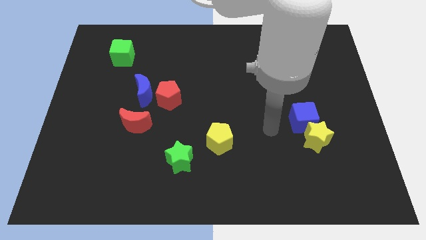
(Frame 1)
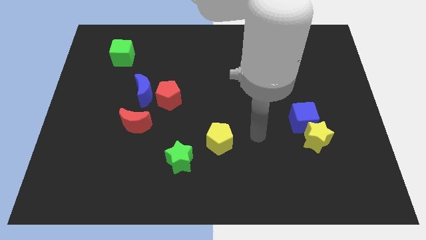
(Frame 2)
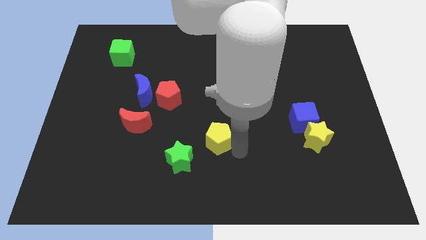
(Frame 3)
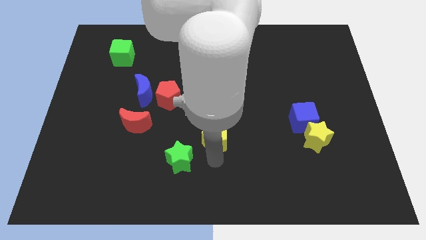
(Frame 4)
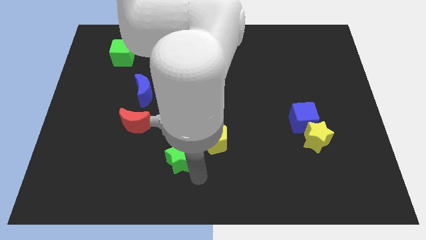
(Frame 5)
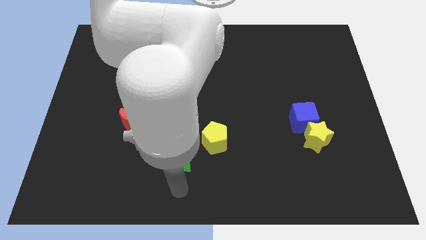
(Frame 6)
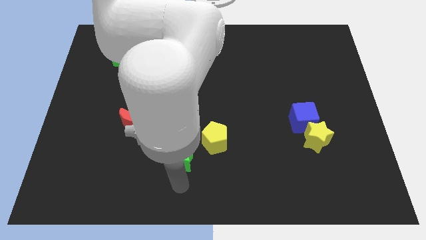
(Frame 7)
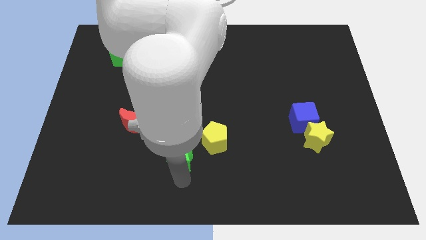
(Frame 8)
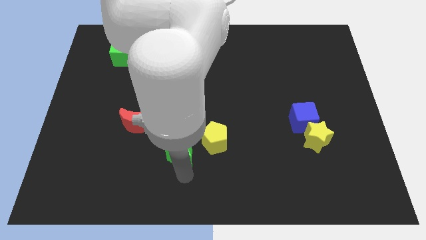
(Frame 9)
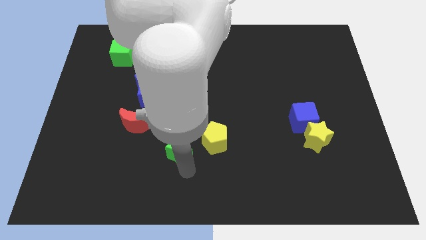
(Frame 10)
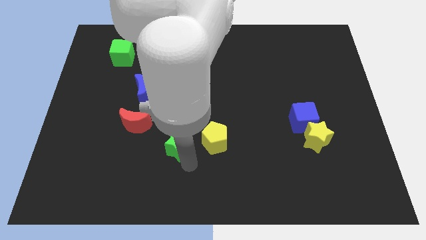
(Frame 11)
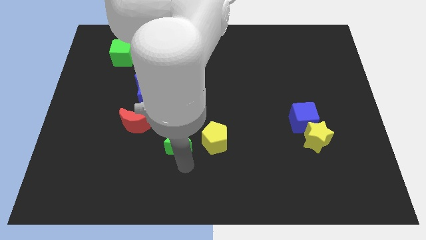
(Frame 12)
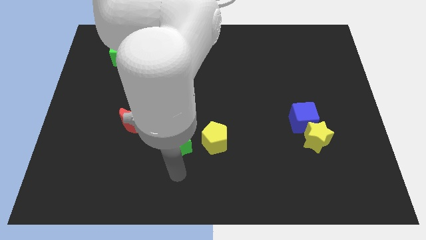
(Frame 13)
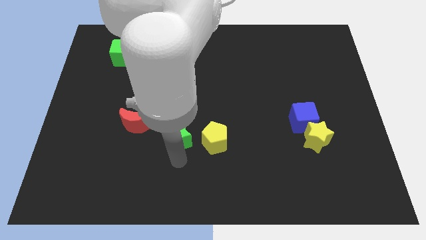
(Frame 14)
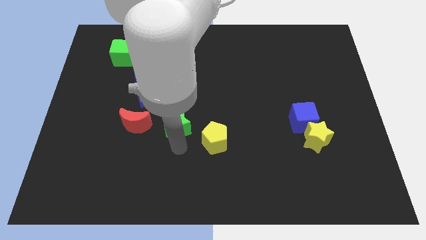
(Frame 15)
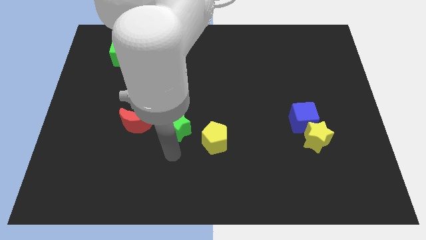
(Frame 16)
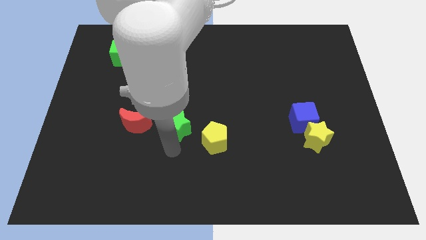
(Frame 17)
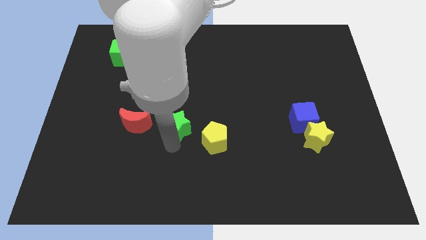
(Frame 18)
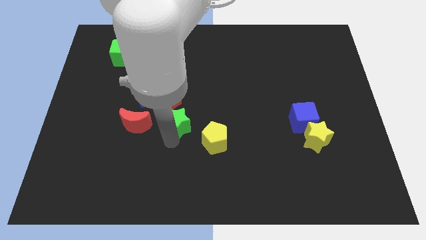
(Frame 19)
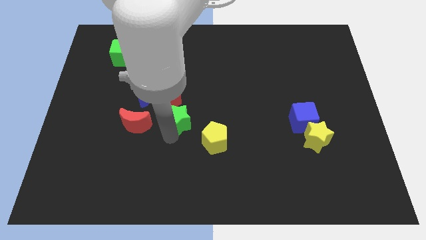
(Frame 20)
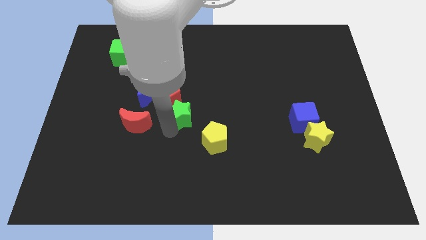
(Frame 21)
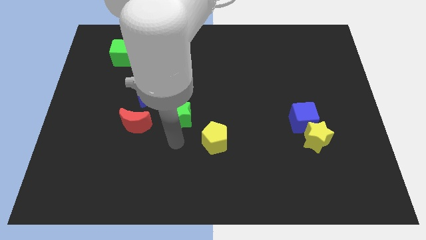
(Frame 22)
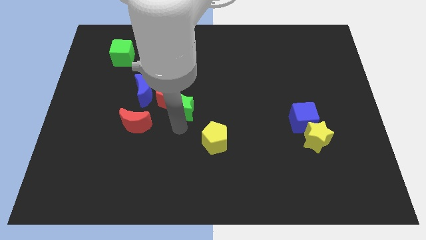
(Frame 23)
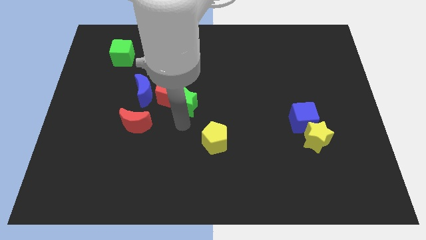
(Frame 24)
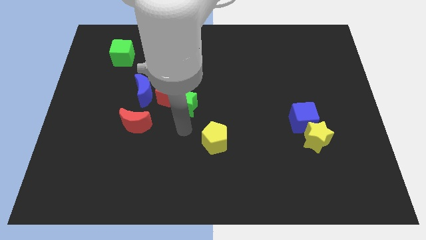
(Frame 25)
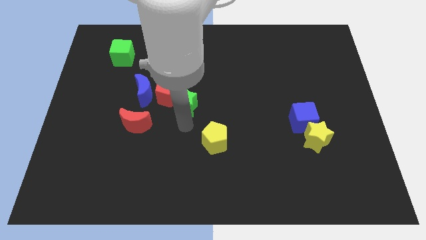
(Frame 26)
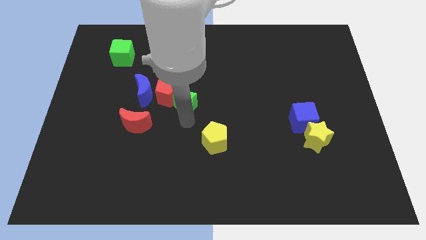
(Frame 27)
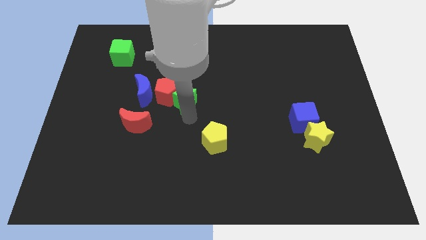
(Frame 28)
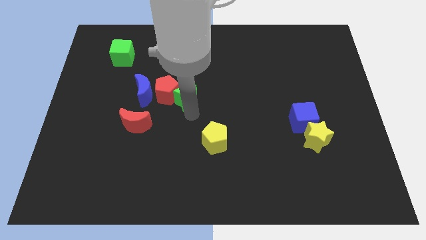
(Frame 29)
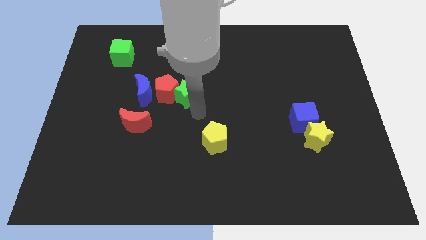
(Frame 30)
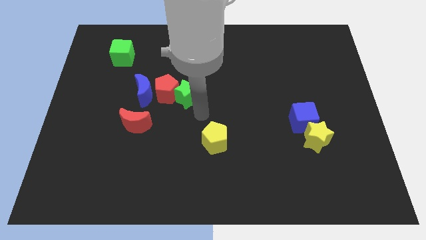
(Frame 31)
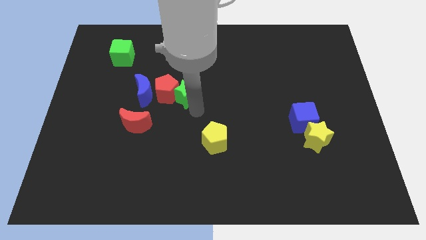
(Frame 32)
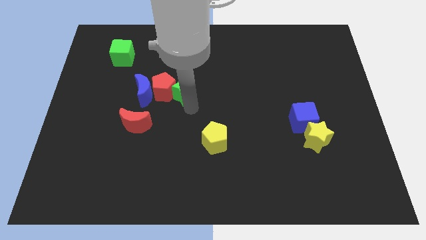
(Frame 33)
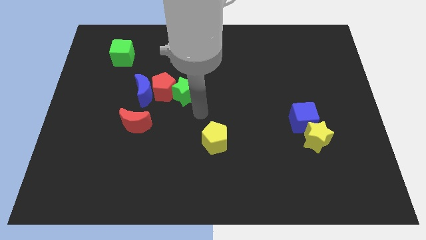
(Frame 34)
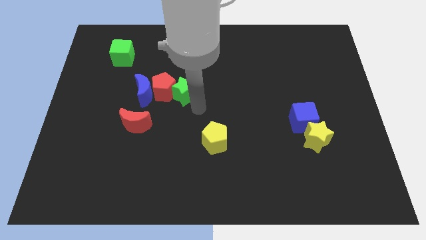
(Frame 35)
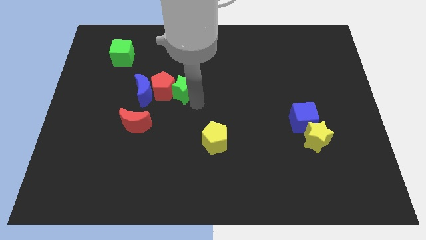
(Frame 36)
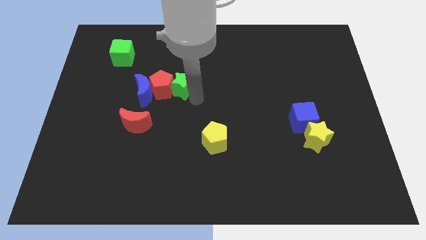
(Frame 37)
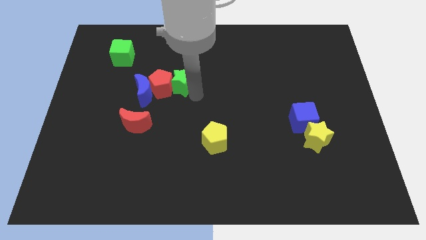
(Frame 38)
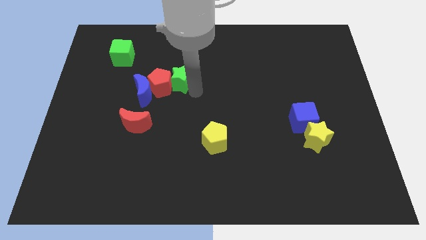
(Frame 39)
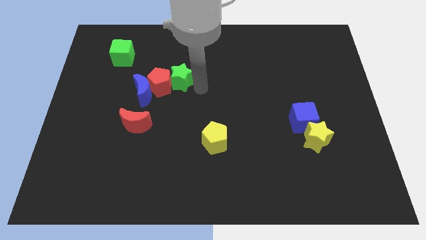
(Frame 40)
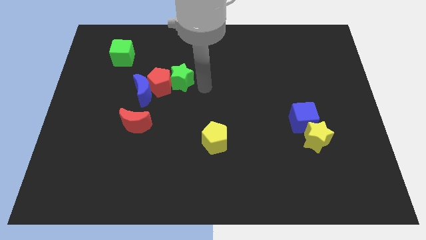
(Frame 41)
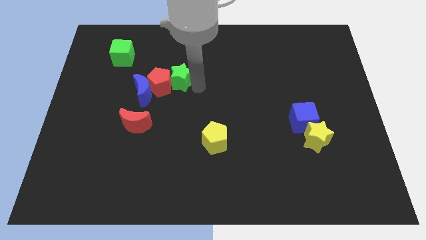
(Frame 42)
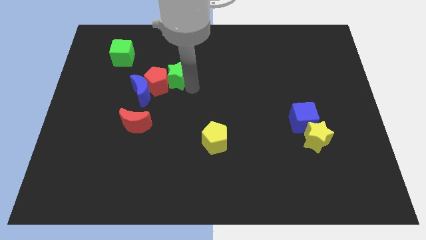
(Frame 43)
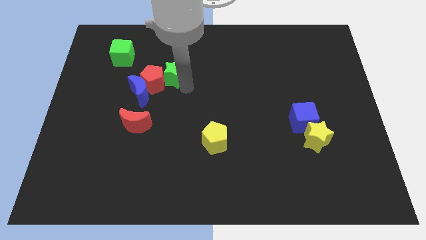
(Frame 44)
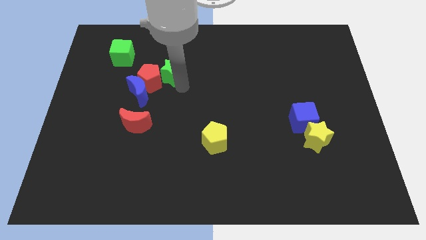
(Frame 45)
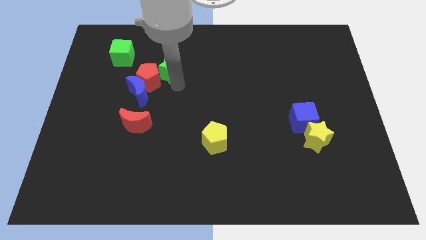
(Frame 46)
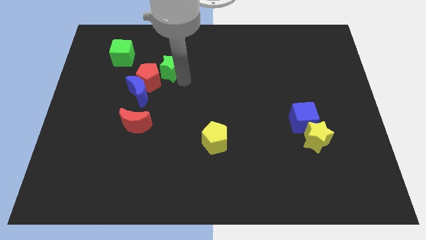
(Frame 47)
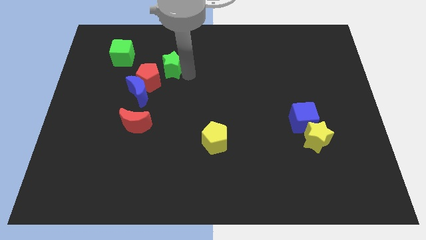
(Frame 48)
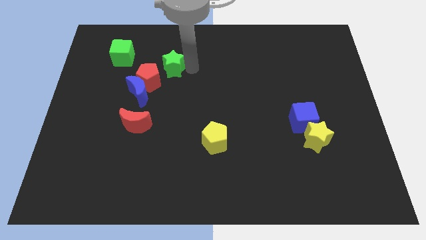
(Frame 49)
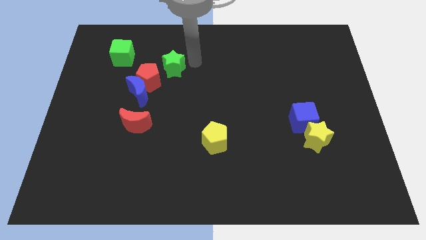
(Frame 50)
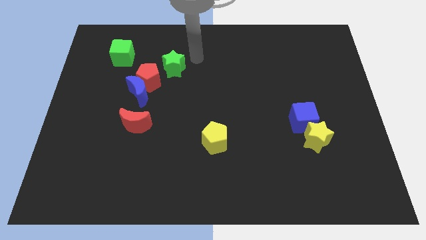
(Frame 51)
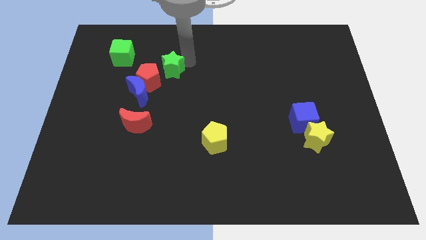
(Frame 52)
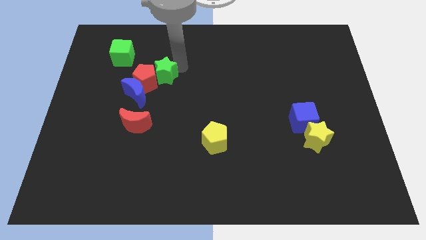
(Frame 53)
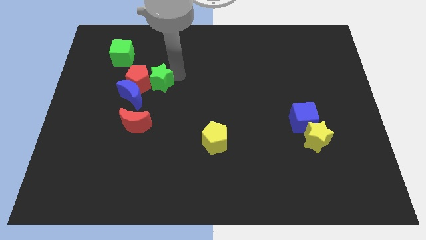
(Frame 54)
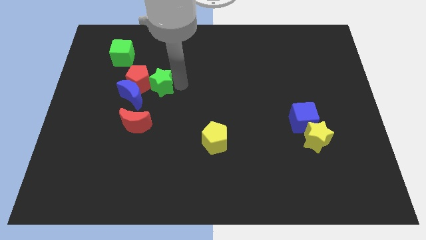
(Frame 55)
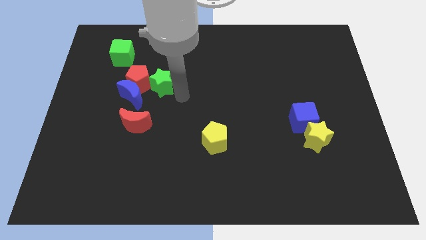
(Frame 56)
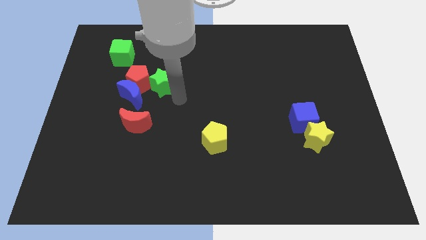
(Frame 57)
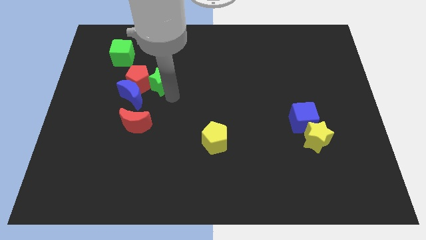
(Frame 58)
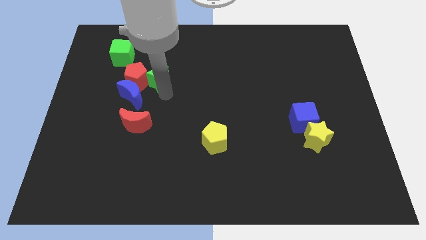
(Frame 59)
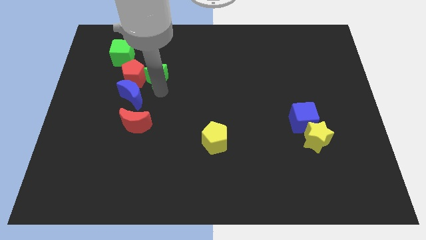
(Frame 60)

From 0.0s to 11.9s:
put the green star to the bottom right side of the green cube

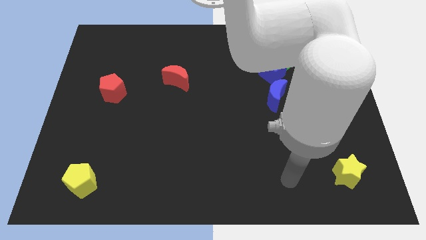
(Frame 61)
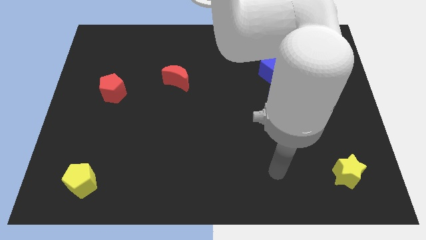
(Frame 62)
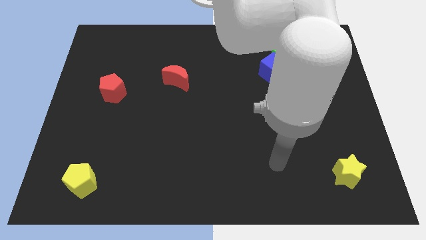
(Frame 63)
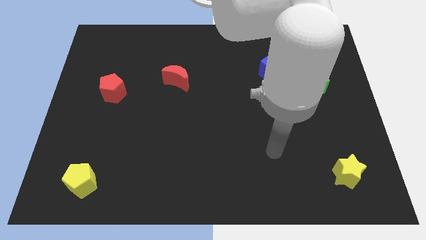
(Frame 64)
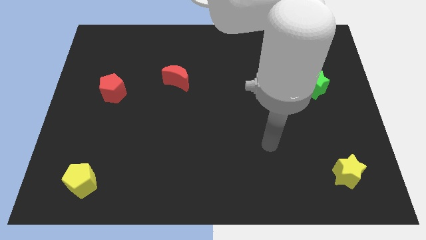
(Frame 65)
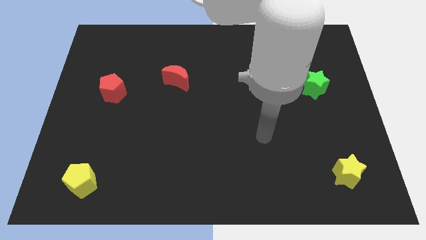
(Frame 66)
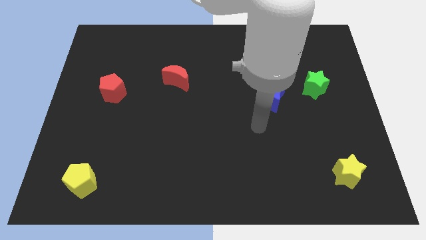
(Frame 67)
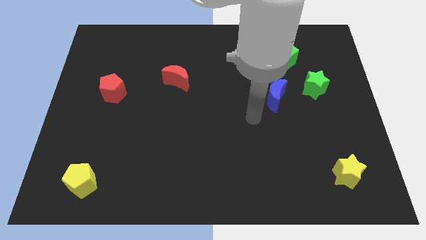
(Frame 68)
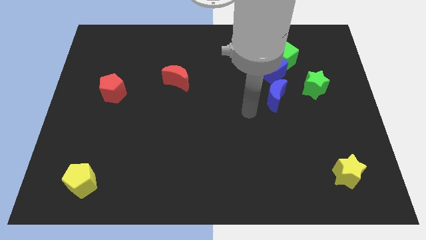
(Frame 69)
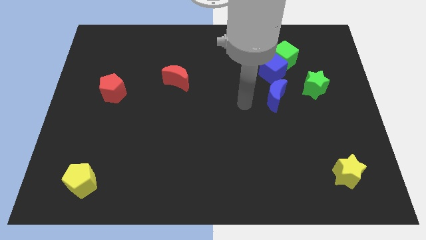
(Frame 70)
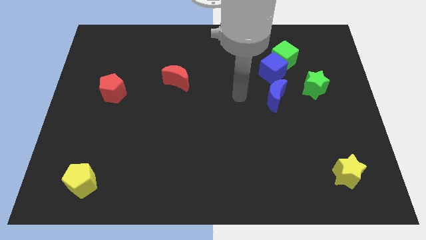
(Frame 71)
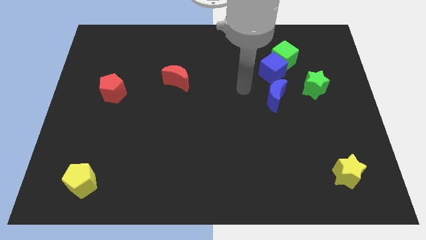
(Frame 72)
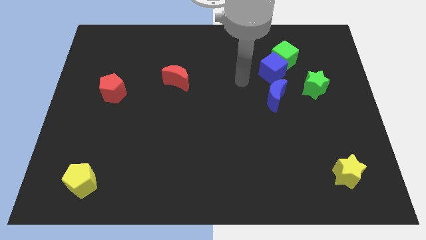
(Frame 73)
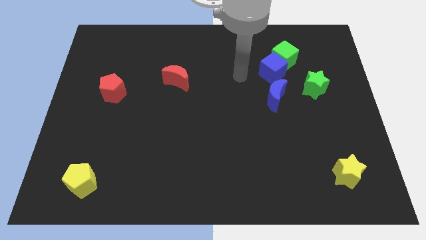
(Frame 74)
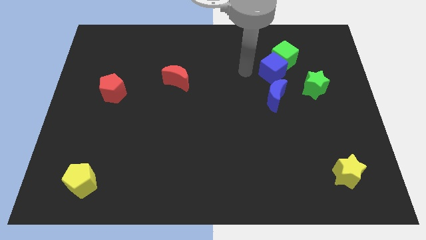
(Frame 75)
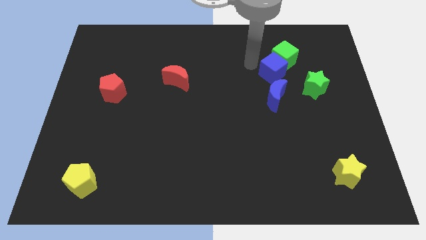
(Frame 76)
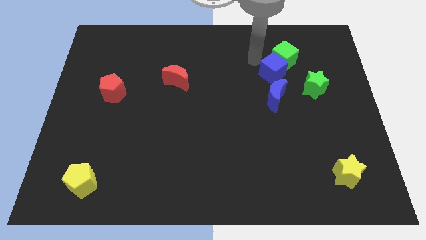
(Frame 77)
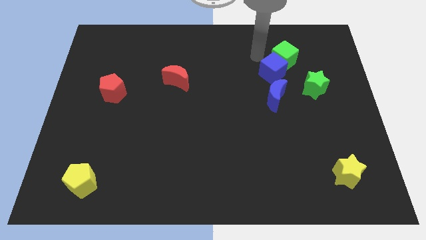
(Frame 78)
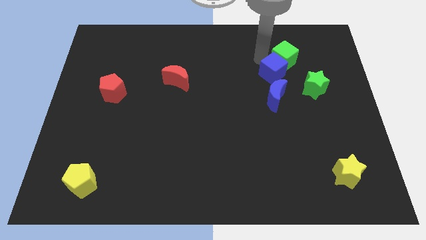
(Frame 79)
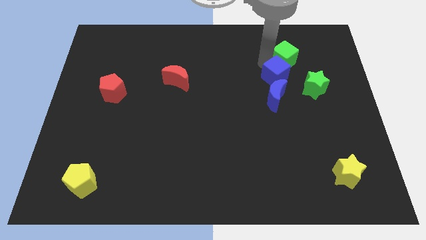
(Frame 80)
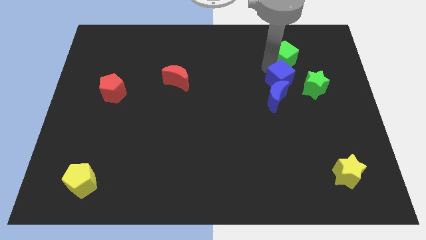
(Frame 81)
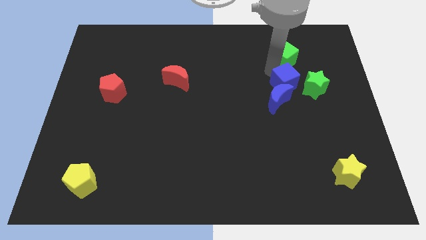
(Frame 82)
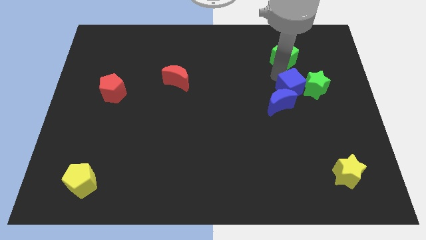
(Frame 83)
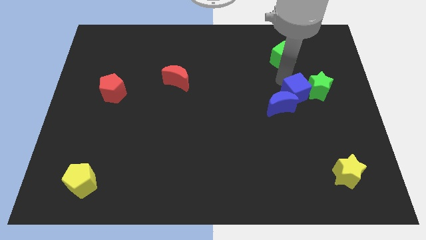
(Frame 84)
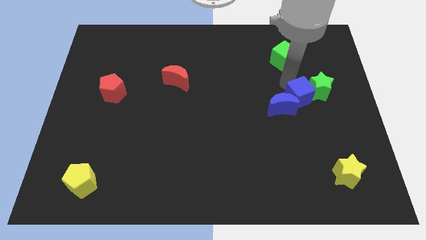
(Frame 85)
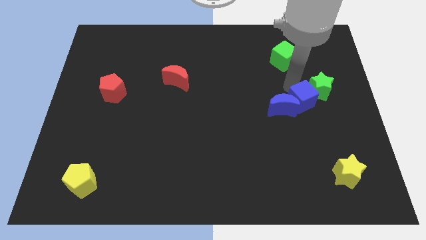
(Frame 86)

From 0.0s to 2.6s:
put the blue cube below the green star
